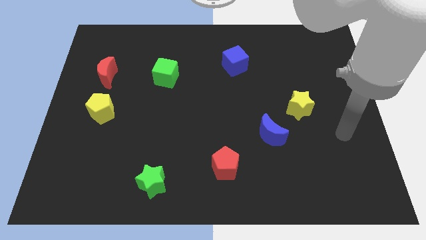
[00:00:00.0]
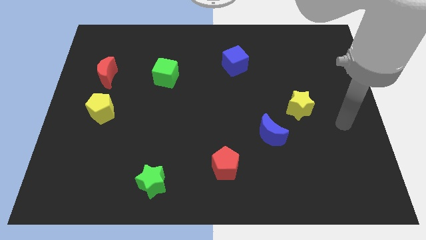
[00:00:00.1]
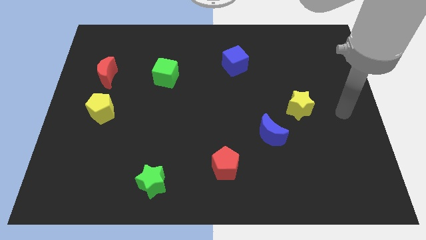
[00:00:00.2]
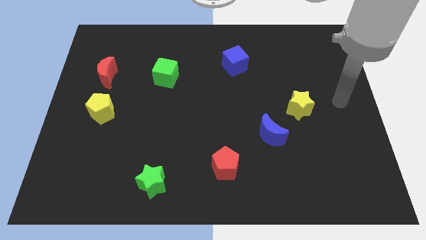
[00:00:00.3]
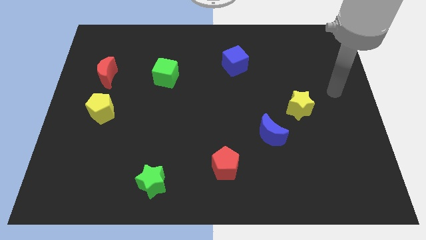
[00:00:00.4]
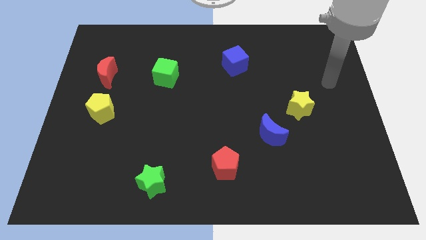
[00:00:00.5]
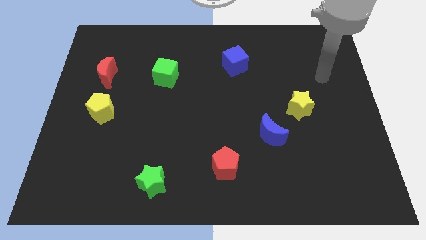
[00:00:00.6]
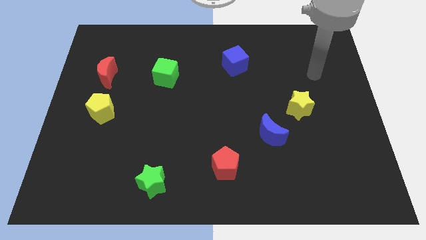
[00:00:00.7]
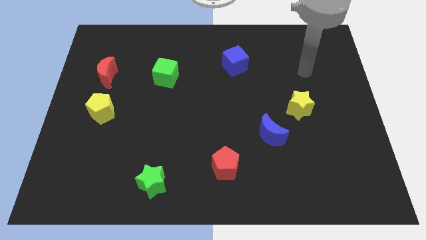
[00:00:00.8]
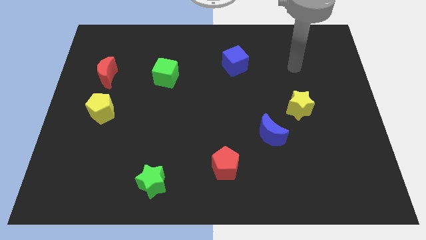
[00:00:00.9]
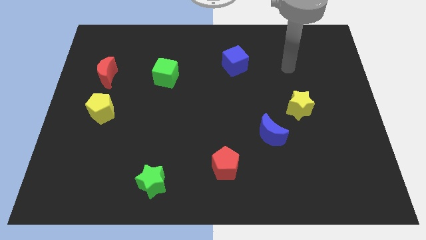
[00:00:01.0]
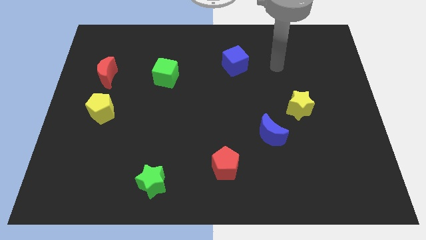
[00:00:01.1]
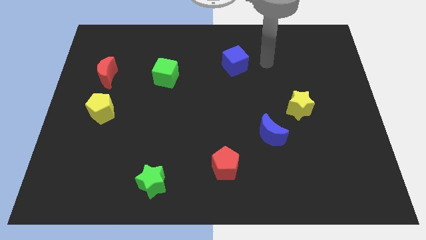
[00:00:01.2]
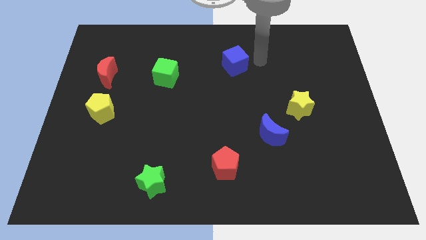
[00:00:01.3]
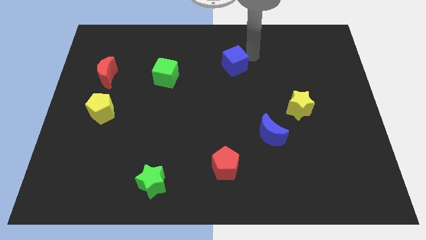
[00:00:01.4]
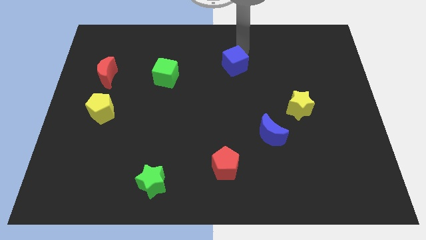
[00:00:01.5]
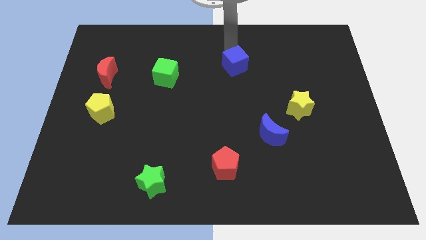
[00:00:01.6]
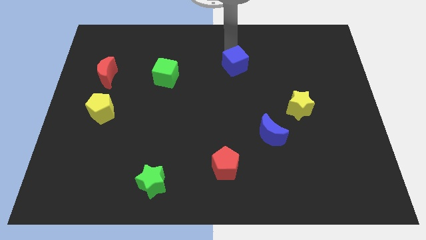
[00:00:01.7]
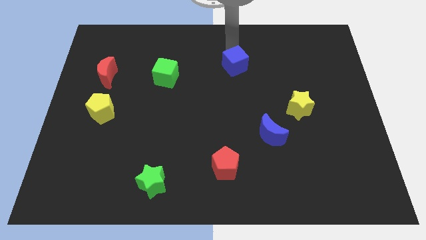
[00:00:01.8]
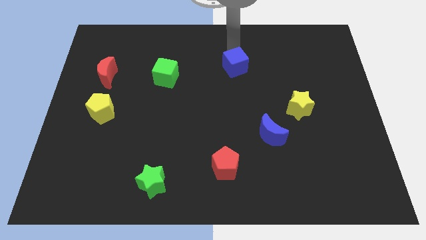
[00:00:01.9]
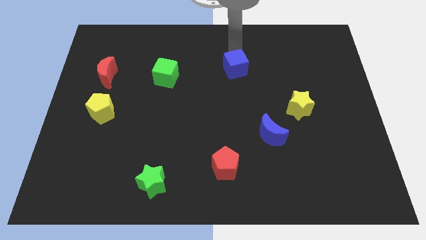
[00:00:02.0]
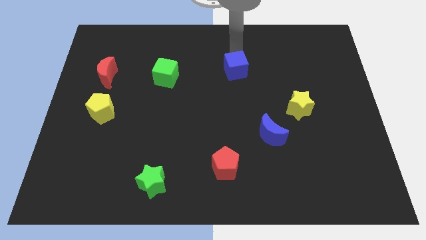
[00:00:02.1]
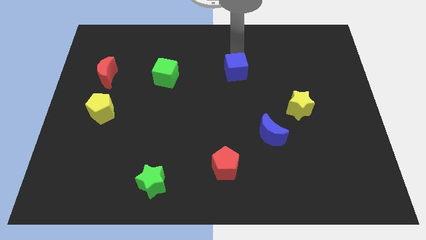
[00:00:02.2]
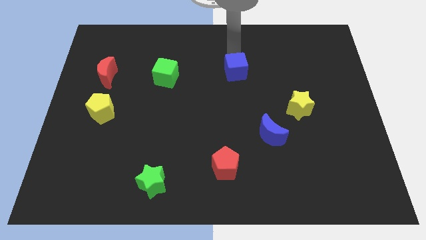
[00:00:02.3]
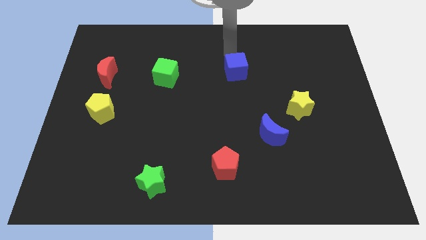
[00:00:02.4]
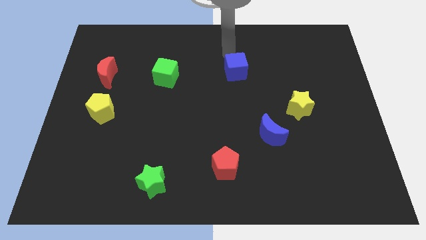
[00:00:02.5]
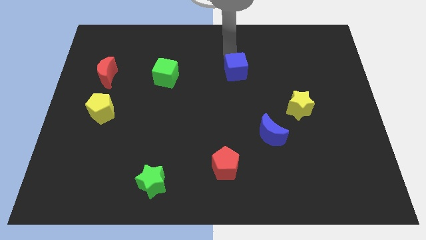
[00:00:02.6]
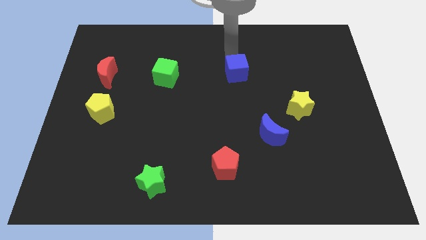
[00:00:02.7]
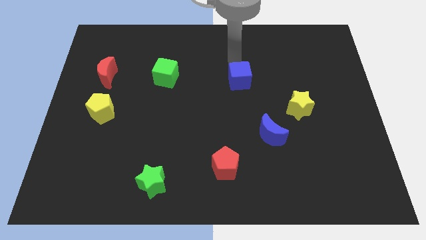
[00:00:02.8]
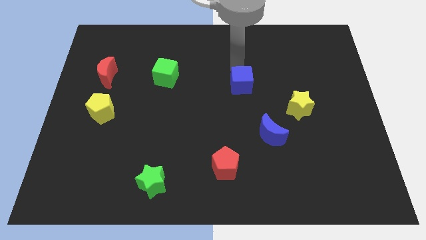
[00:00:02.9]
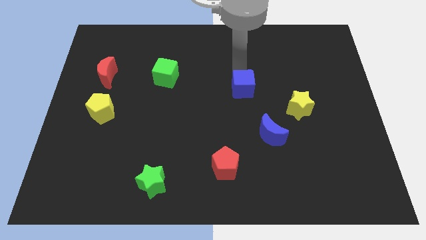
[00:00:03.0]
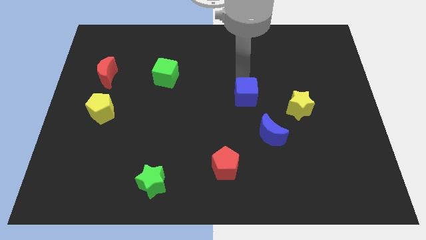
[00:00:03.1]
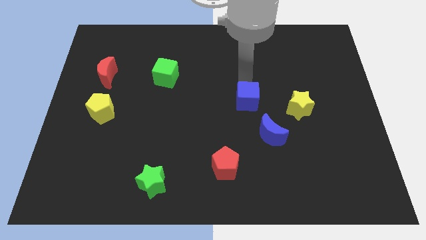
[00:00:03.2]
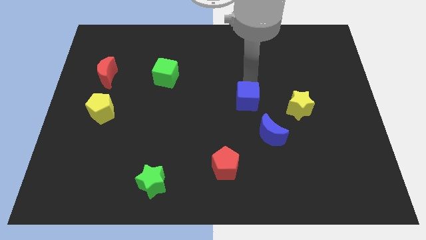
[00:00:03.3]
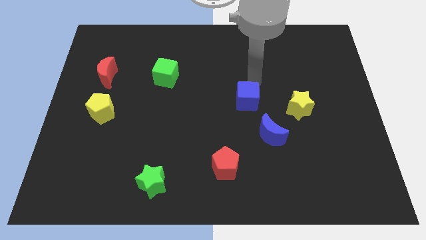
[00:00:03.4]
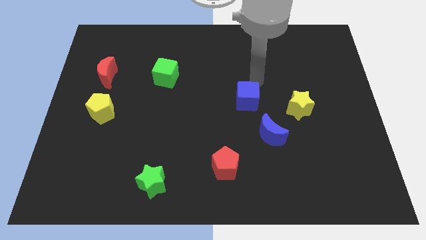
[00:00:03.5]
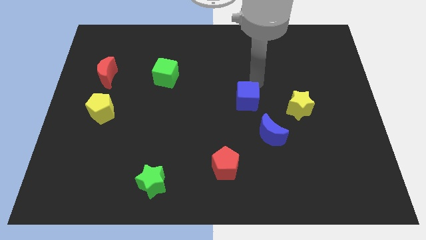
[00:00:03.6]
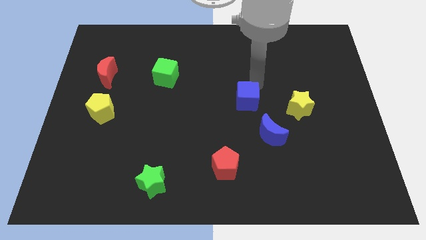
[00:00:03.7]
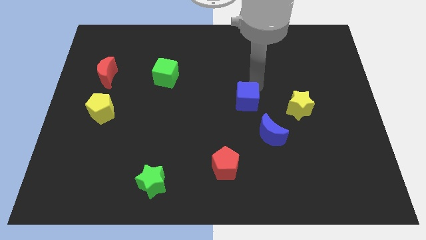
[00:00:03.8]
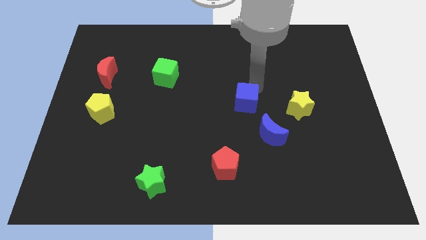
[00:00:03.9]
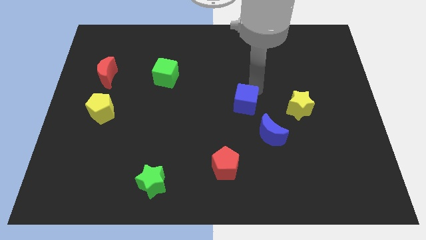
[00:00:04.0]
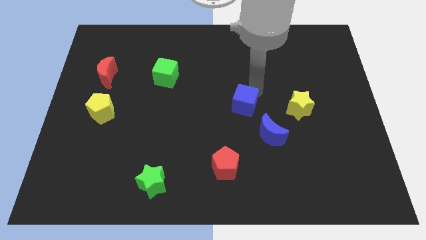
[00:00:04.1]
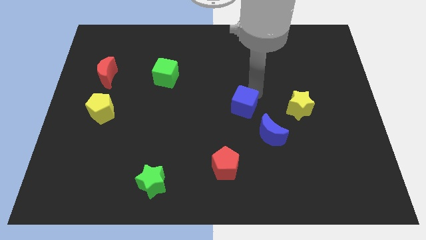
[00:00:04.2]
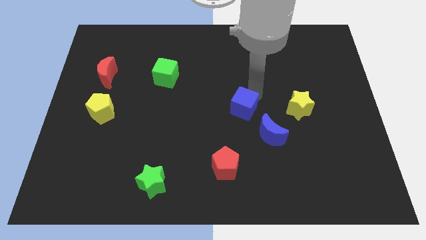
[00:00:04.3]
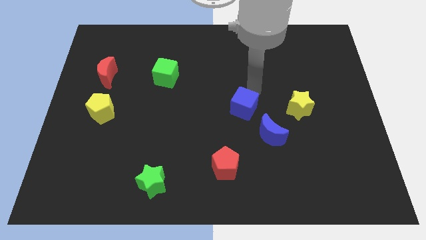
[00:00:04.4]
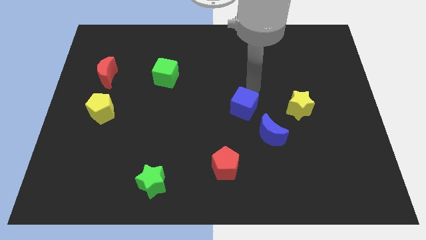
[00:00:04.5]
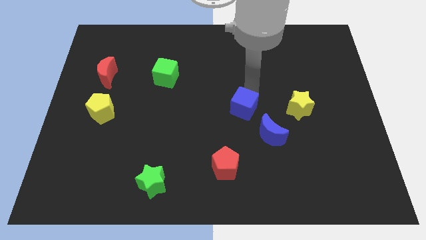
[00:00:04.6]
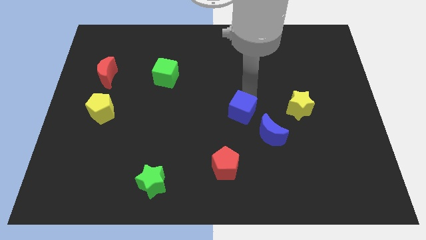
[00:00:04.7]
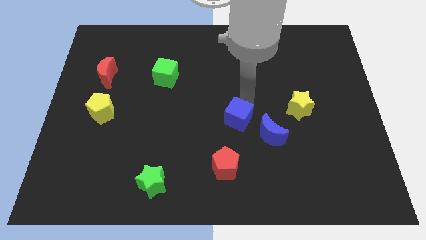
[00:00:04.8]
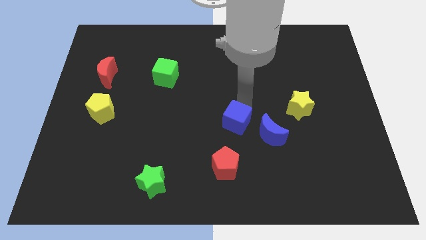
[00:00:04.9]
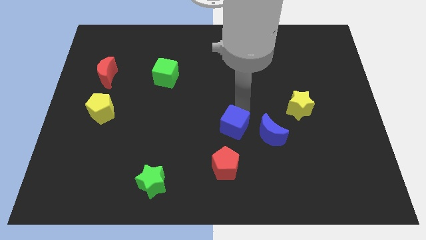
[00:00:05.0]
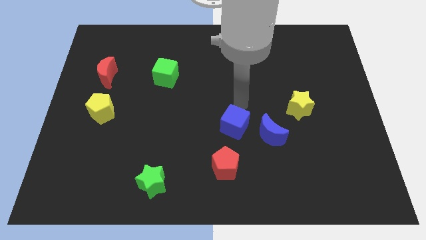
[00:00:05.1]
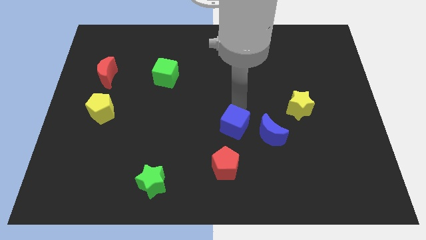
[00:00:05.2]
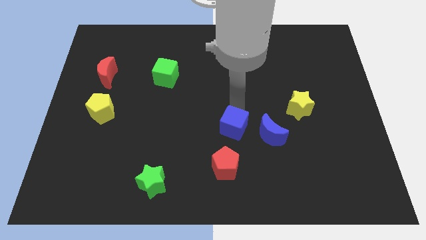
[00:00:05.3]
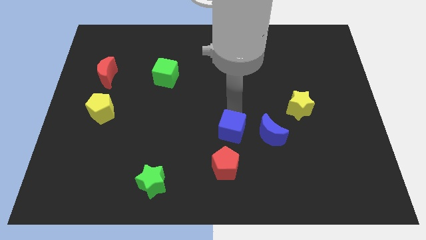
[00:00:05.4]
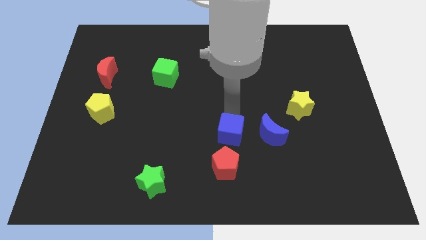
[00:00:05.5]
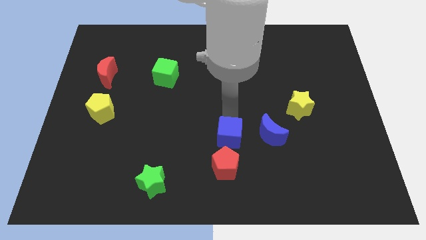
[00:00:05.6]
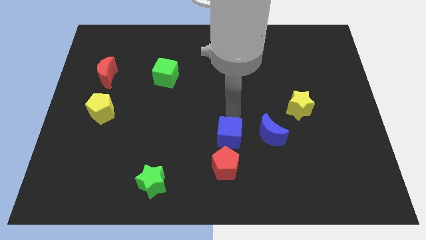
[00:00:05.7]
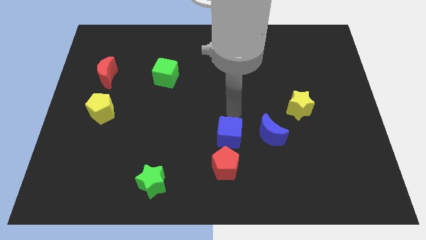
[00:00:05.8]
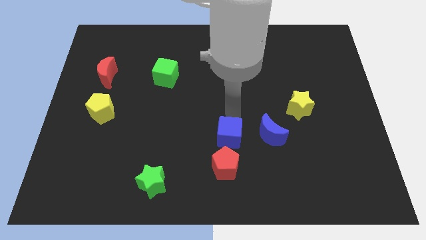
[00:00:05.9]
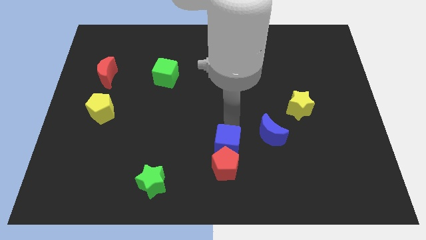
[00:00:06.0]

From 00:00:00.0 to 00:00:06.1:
slide the blue cube close to the red pentagon
